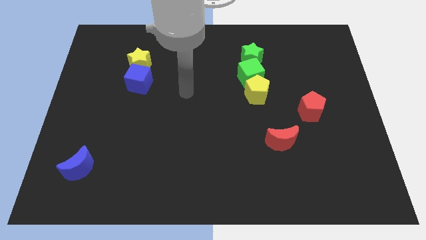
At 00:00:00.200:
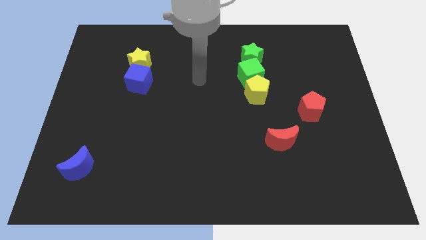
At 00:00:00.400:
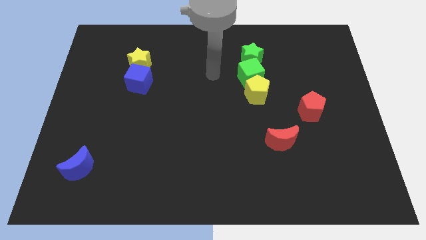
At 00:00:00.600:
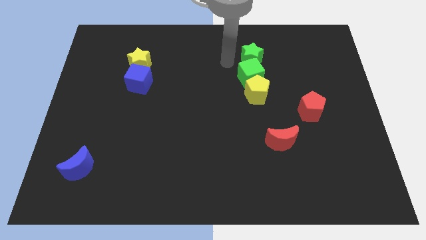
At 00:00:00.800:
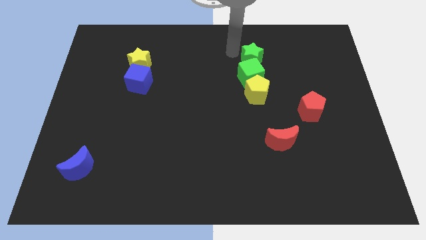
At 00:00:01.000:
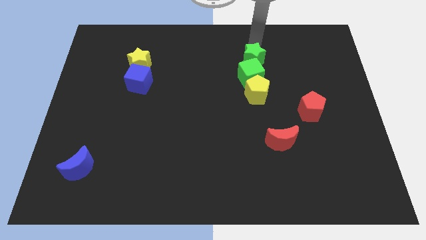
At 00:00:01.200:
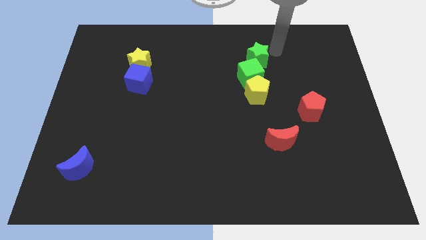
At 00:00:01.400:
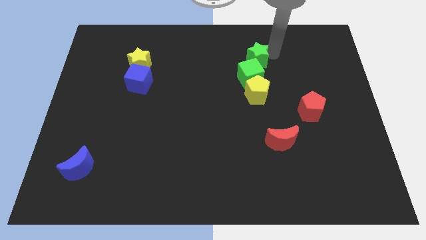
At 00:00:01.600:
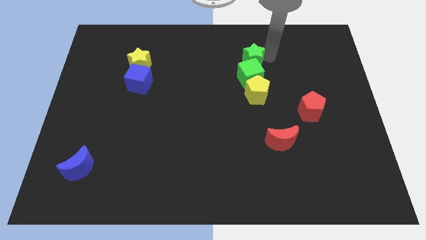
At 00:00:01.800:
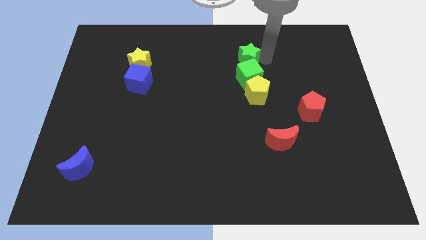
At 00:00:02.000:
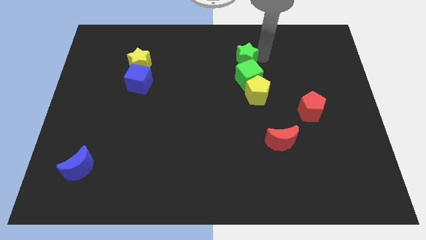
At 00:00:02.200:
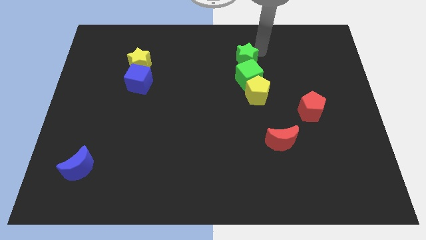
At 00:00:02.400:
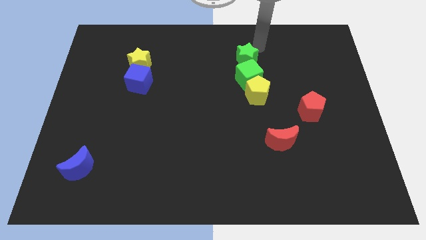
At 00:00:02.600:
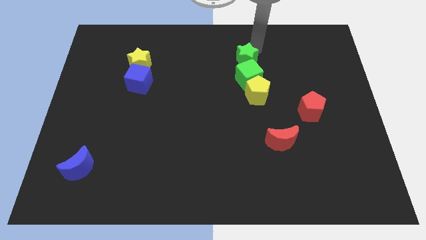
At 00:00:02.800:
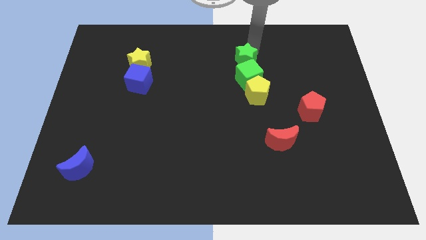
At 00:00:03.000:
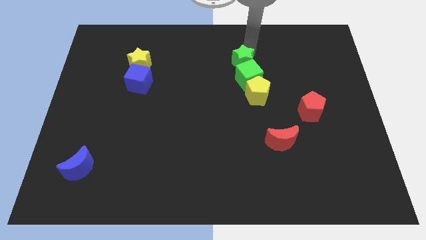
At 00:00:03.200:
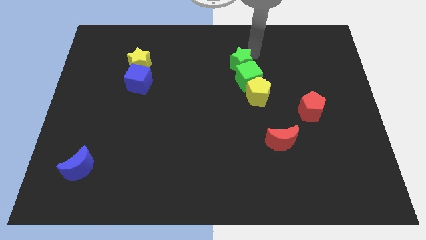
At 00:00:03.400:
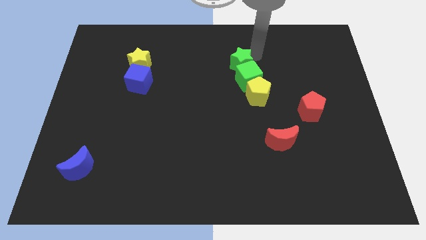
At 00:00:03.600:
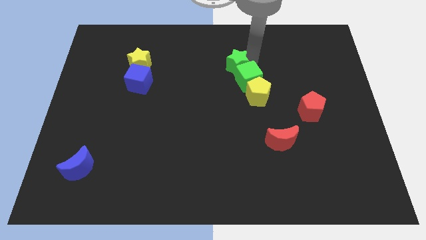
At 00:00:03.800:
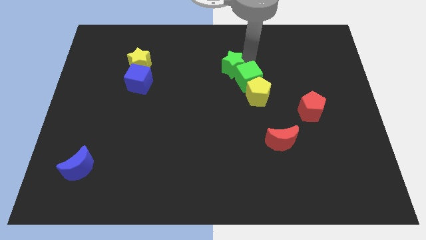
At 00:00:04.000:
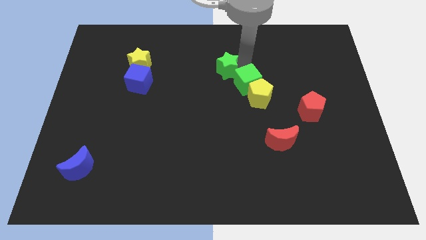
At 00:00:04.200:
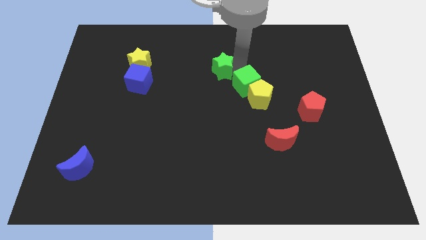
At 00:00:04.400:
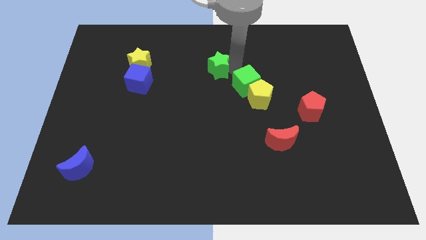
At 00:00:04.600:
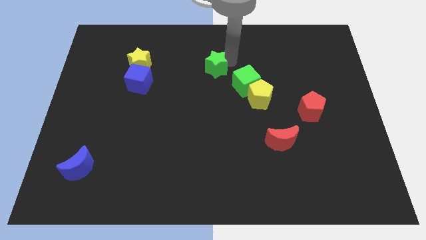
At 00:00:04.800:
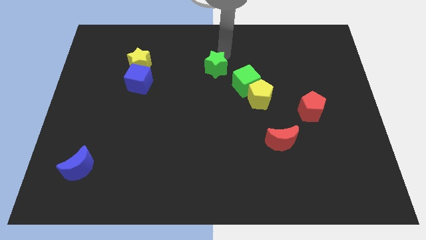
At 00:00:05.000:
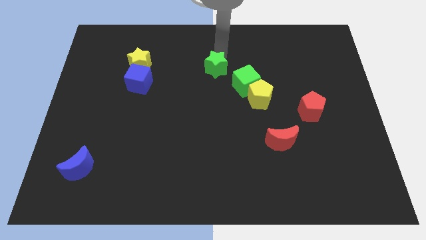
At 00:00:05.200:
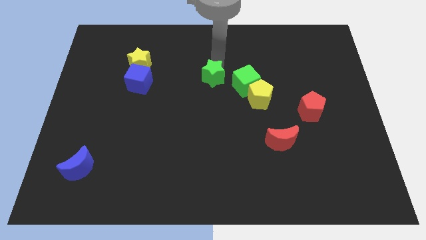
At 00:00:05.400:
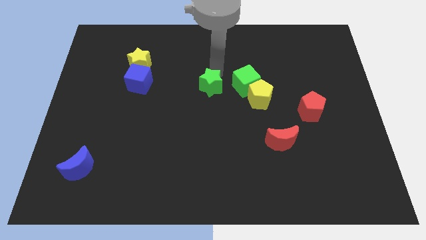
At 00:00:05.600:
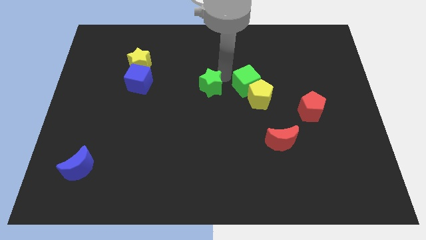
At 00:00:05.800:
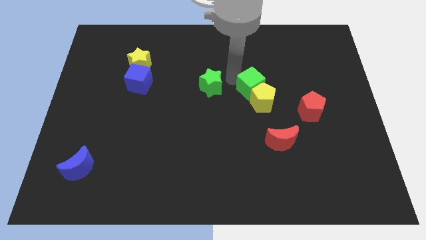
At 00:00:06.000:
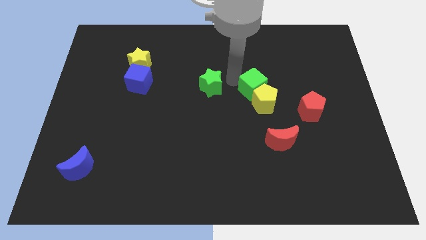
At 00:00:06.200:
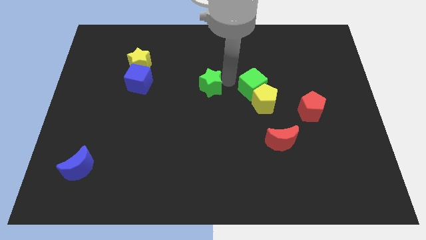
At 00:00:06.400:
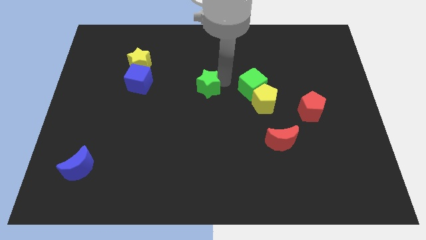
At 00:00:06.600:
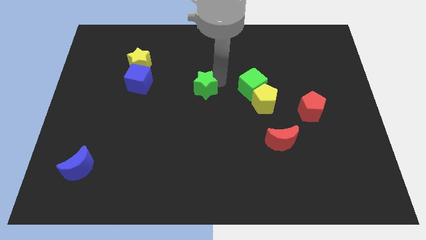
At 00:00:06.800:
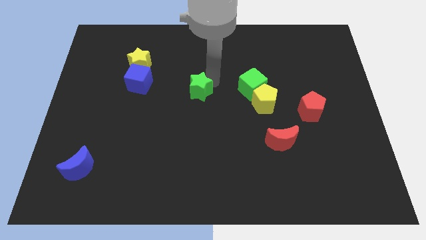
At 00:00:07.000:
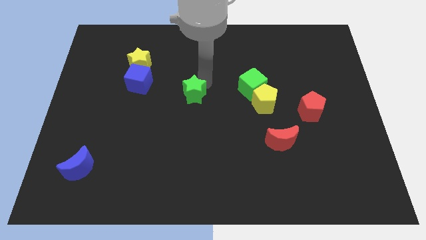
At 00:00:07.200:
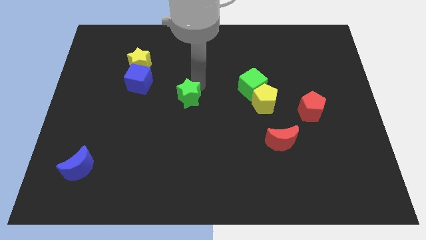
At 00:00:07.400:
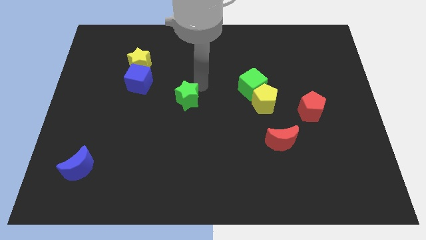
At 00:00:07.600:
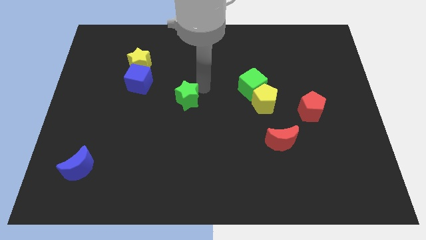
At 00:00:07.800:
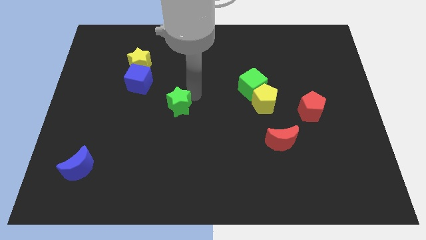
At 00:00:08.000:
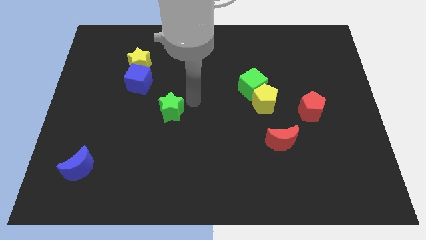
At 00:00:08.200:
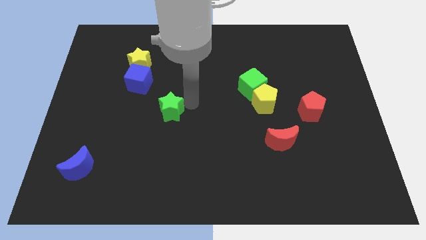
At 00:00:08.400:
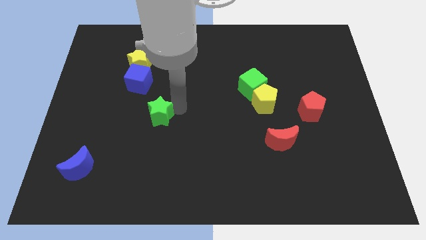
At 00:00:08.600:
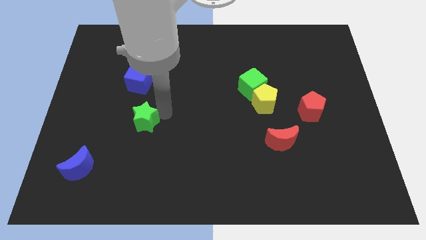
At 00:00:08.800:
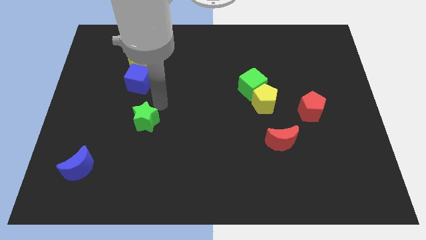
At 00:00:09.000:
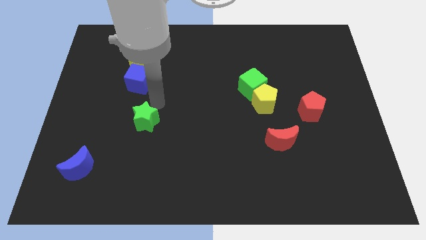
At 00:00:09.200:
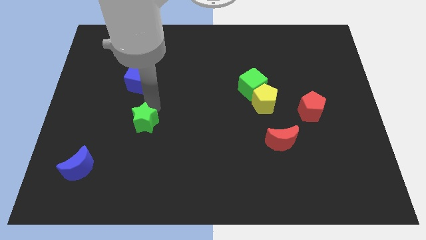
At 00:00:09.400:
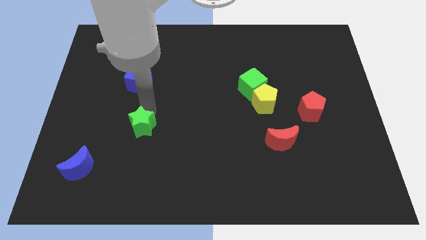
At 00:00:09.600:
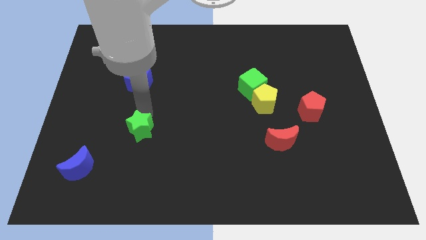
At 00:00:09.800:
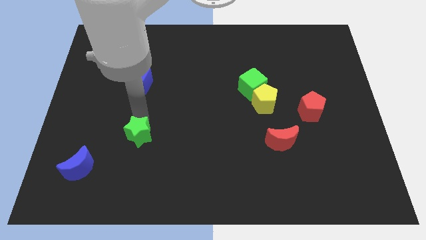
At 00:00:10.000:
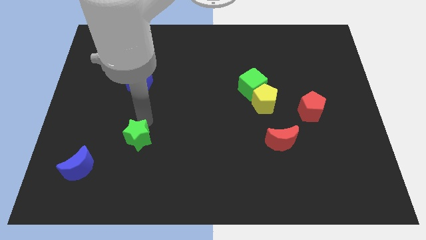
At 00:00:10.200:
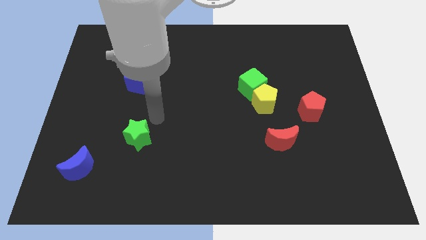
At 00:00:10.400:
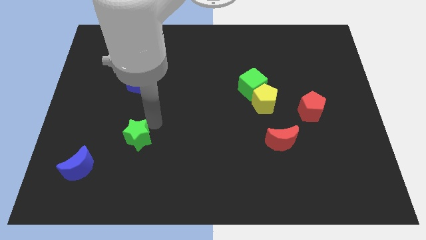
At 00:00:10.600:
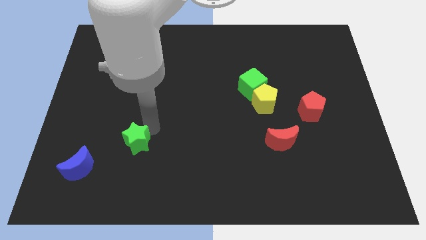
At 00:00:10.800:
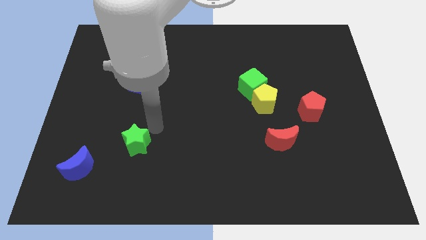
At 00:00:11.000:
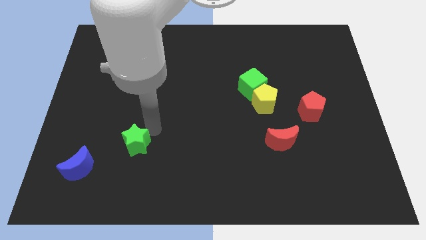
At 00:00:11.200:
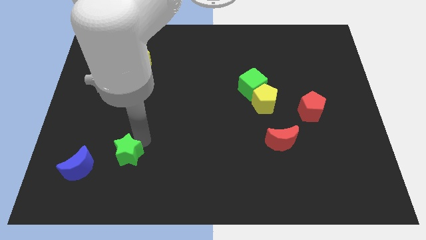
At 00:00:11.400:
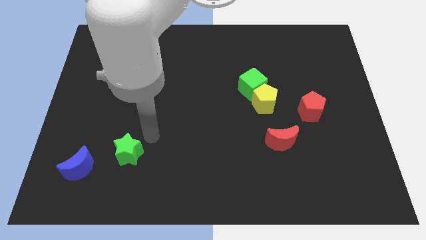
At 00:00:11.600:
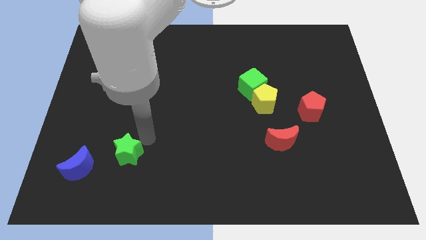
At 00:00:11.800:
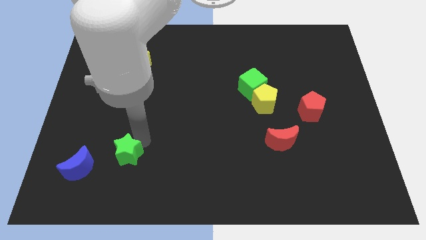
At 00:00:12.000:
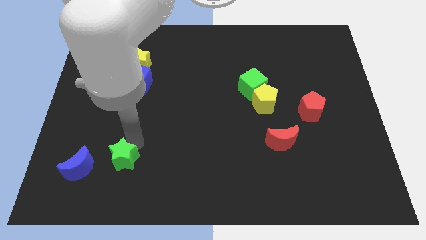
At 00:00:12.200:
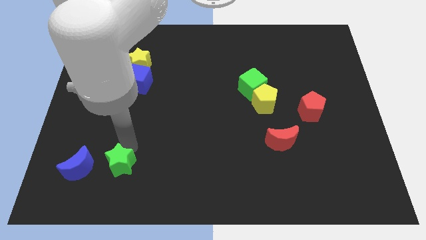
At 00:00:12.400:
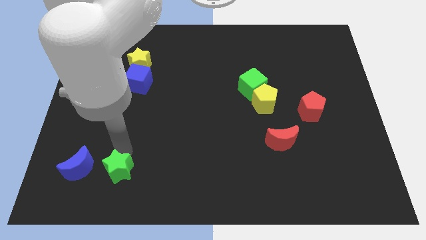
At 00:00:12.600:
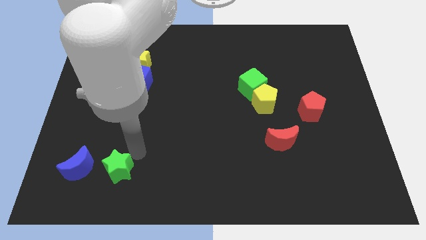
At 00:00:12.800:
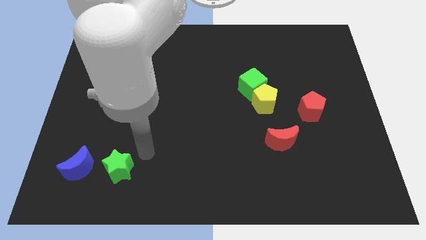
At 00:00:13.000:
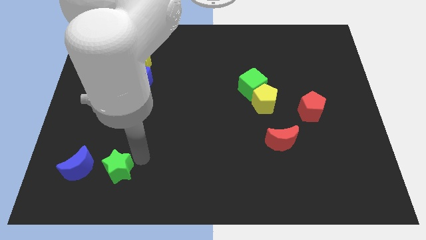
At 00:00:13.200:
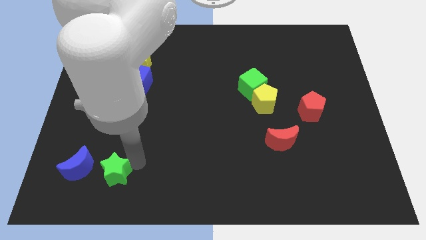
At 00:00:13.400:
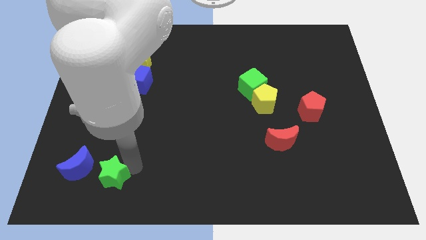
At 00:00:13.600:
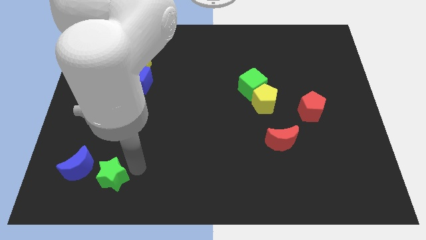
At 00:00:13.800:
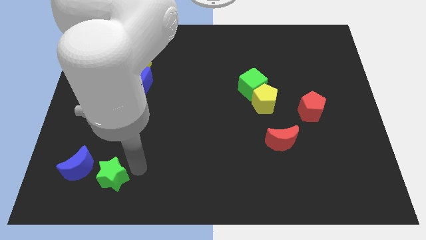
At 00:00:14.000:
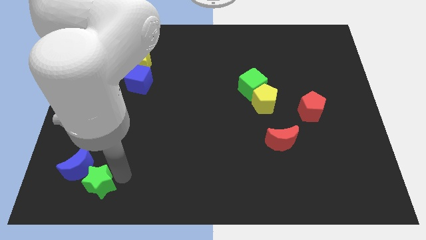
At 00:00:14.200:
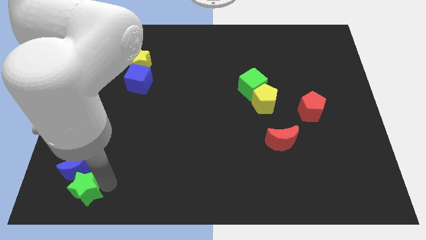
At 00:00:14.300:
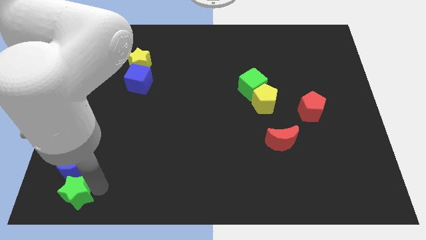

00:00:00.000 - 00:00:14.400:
slide the green star to the lower left corner
